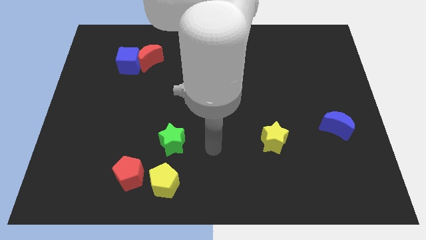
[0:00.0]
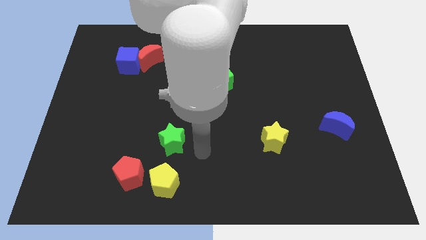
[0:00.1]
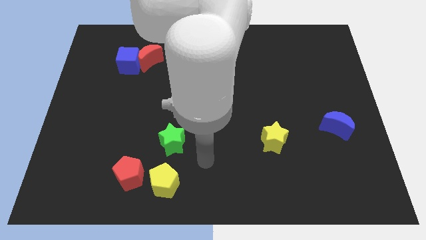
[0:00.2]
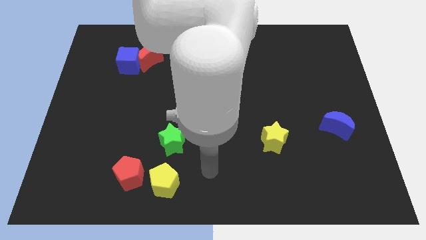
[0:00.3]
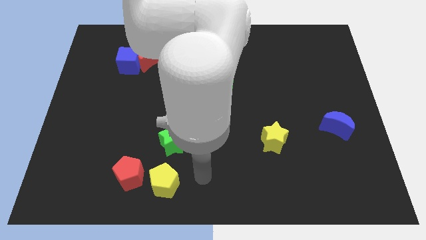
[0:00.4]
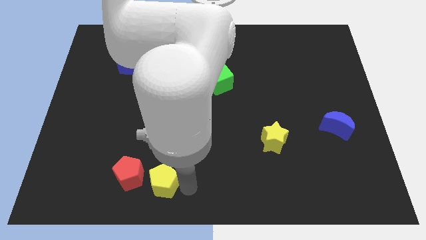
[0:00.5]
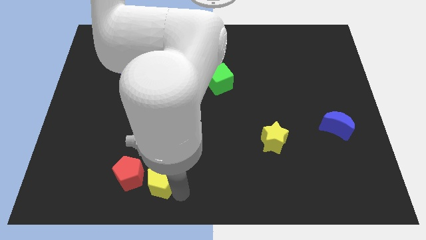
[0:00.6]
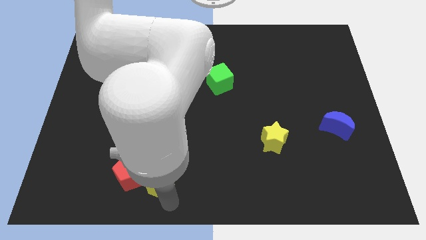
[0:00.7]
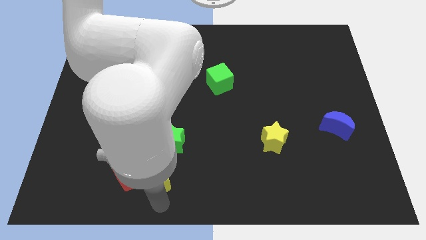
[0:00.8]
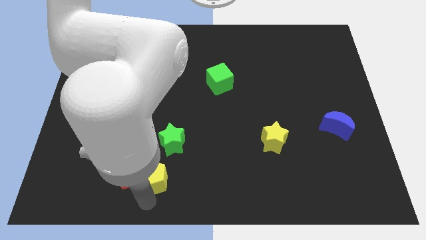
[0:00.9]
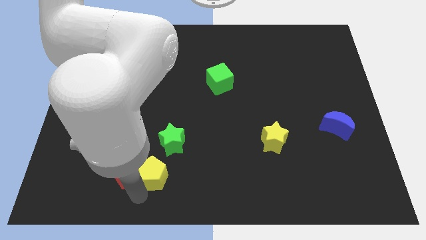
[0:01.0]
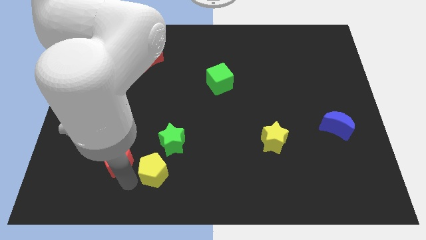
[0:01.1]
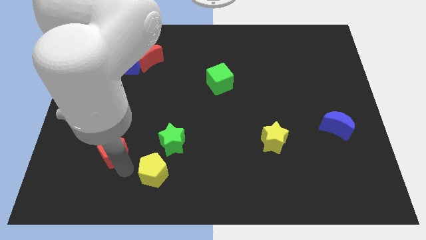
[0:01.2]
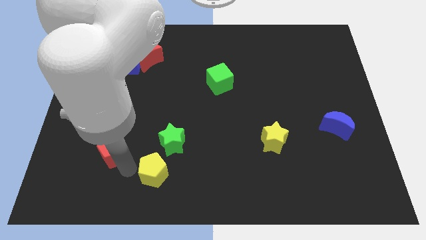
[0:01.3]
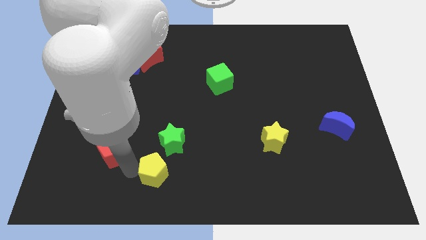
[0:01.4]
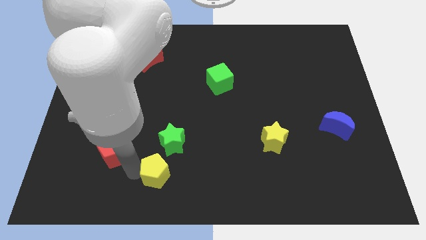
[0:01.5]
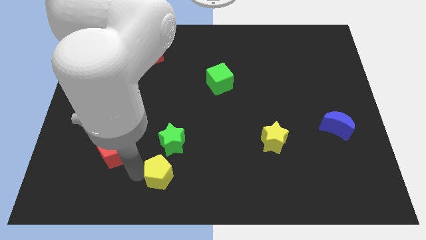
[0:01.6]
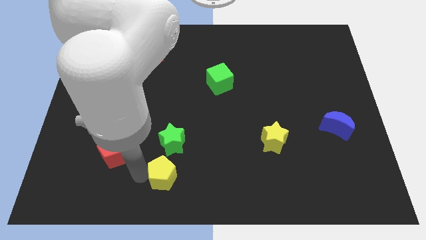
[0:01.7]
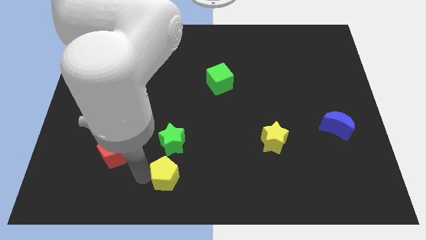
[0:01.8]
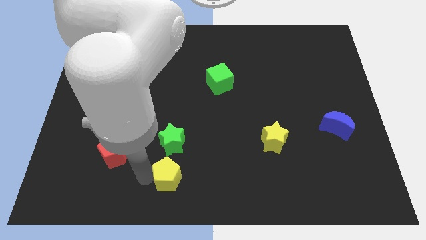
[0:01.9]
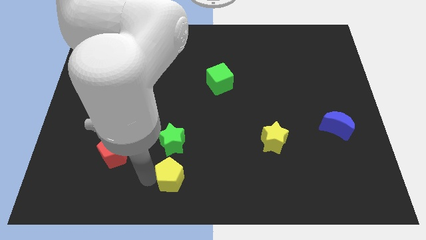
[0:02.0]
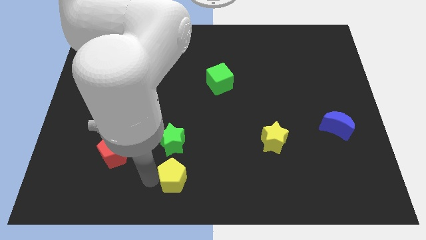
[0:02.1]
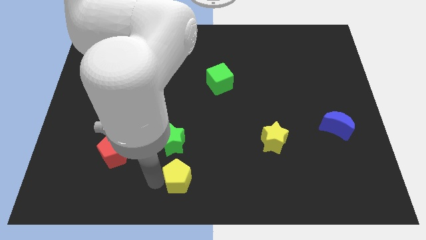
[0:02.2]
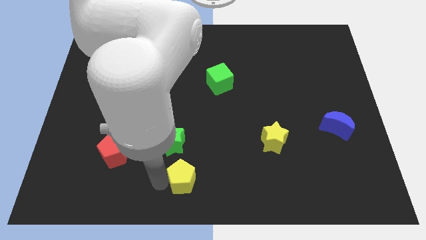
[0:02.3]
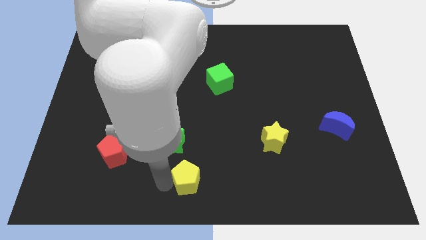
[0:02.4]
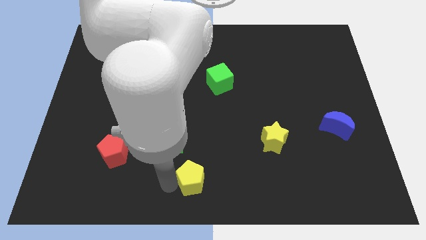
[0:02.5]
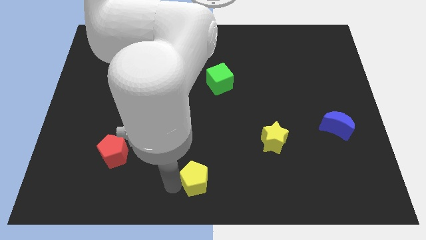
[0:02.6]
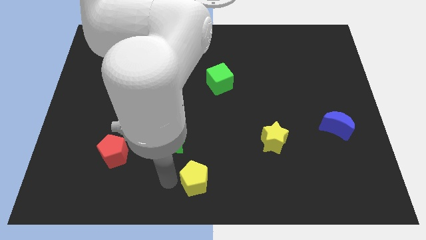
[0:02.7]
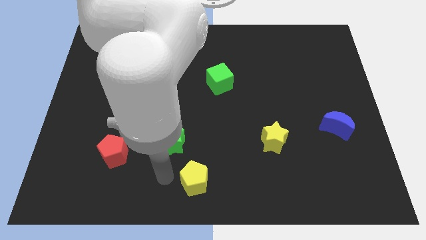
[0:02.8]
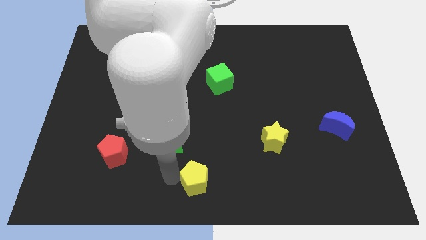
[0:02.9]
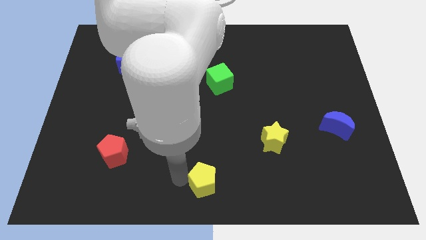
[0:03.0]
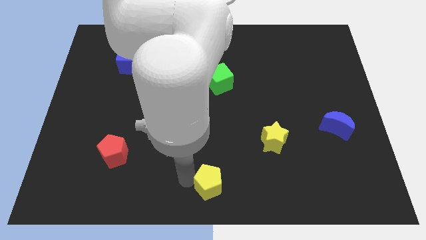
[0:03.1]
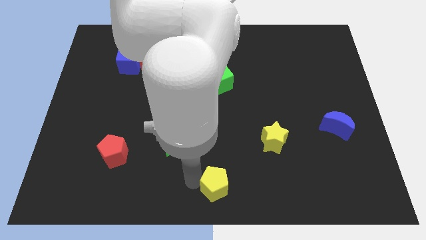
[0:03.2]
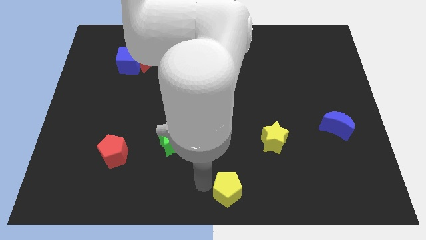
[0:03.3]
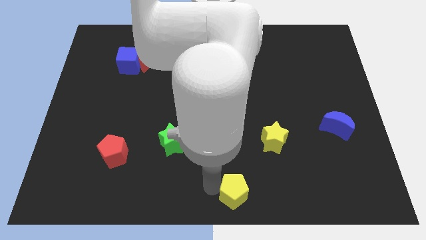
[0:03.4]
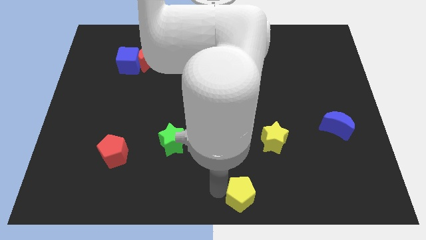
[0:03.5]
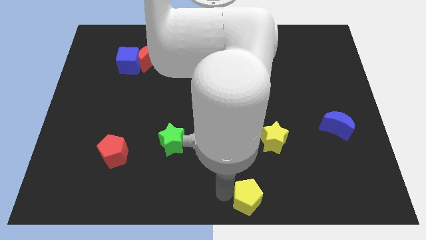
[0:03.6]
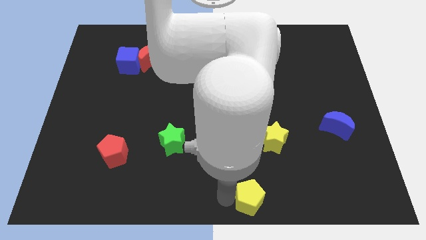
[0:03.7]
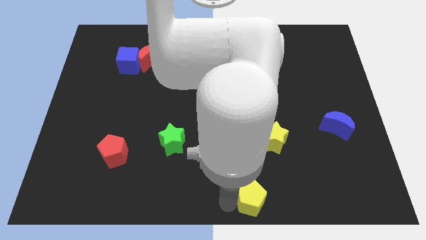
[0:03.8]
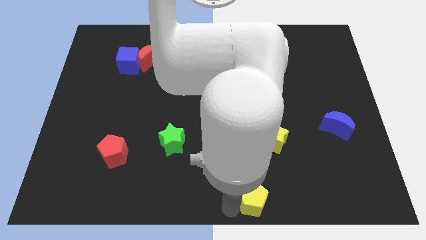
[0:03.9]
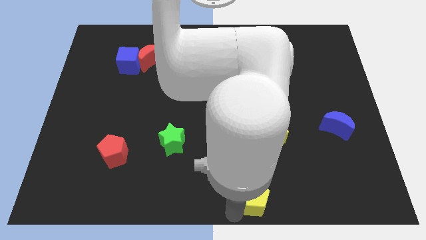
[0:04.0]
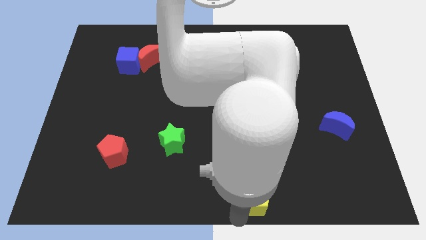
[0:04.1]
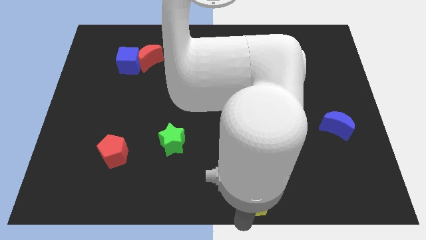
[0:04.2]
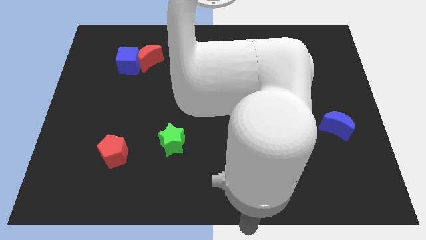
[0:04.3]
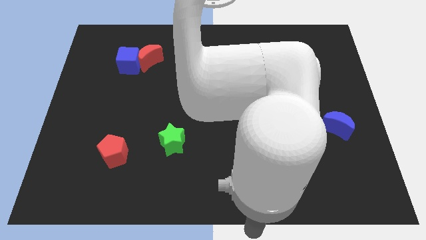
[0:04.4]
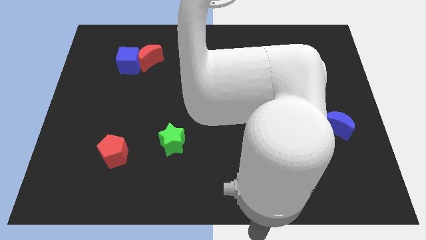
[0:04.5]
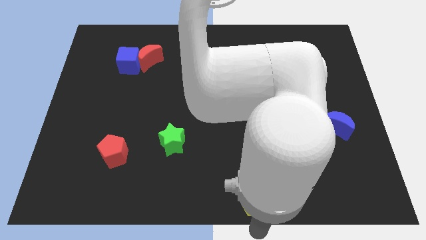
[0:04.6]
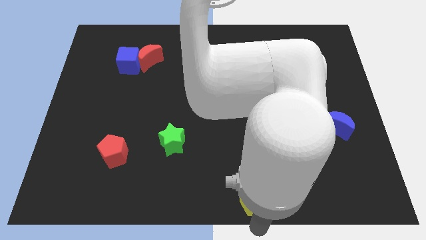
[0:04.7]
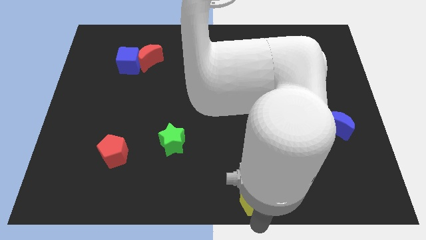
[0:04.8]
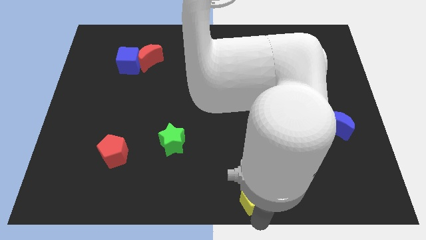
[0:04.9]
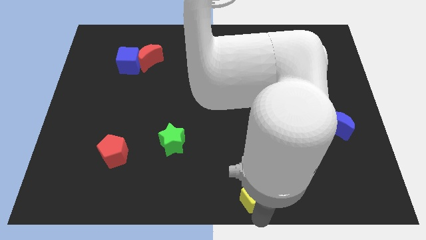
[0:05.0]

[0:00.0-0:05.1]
move the yellow pentagon below the yellow star

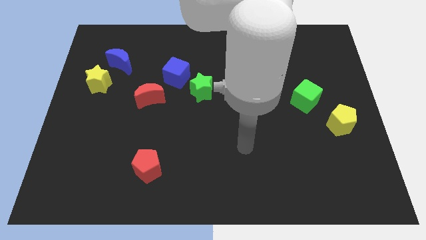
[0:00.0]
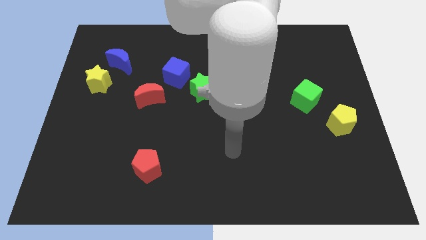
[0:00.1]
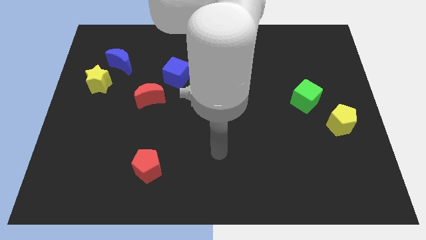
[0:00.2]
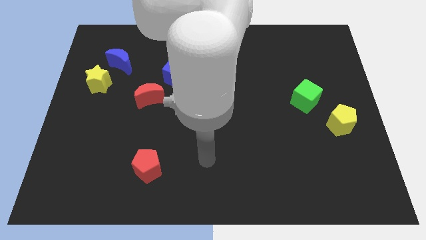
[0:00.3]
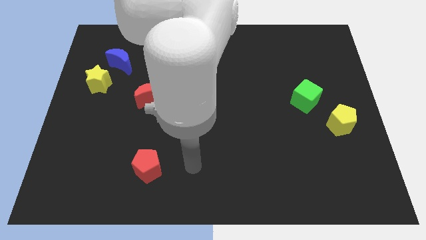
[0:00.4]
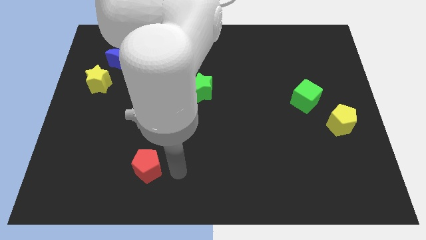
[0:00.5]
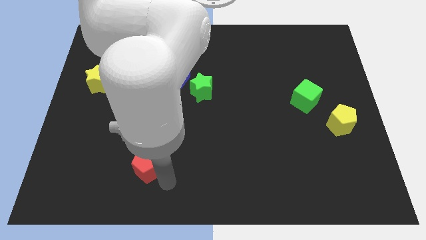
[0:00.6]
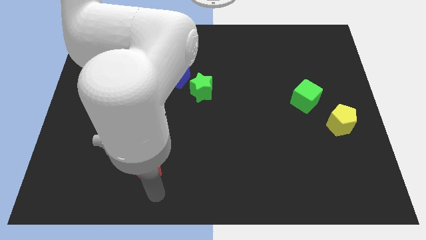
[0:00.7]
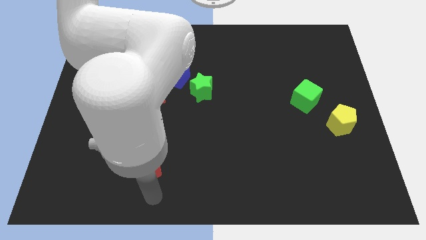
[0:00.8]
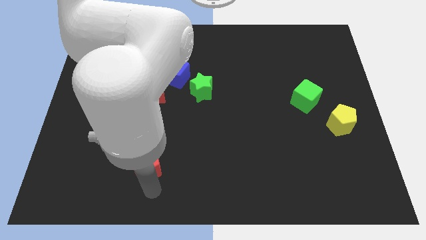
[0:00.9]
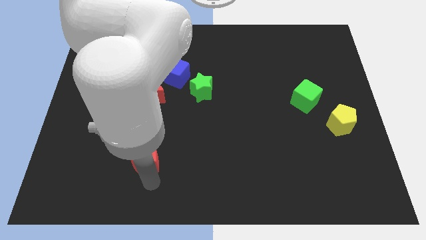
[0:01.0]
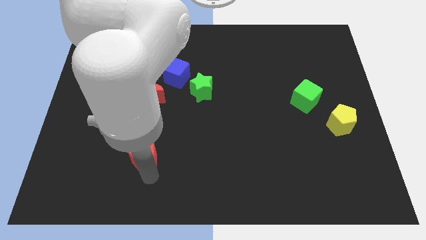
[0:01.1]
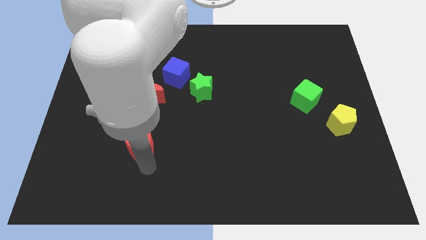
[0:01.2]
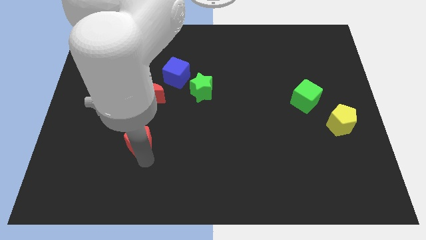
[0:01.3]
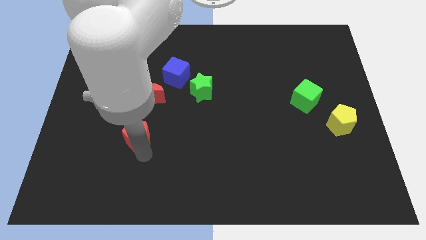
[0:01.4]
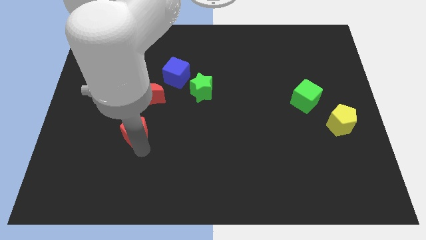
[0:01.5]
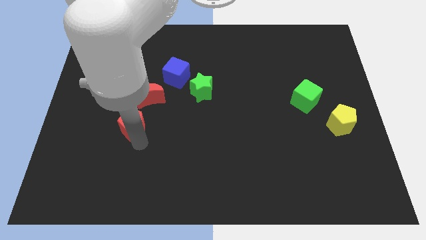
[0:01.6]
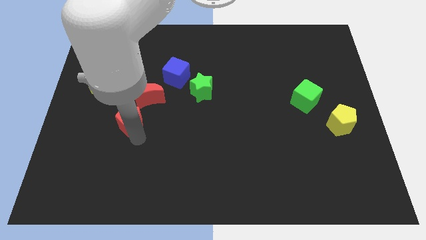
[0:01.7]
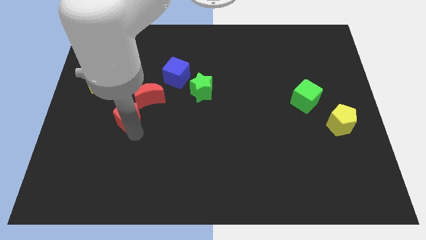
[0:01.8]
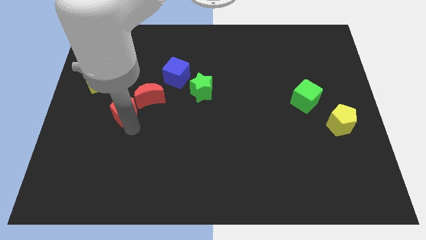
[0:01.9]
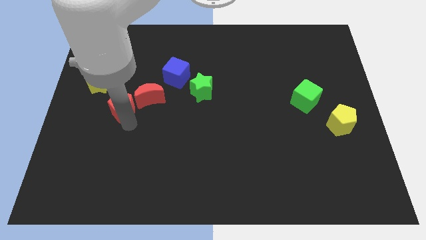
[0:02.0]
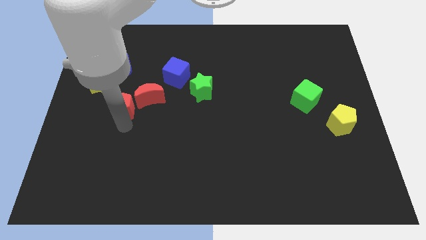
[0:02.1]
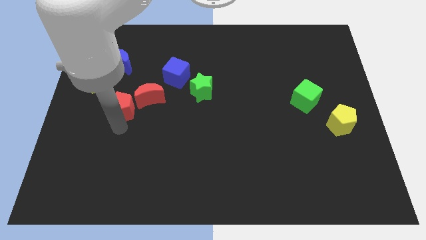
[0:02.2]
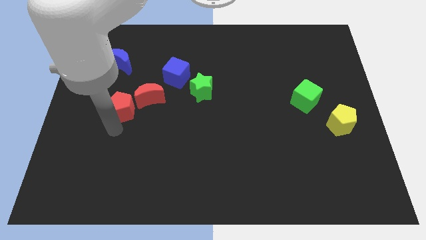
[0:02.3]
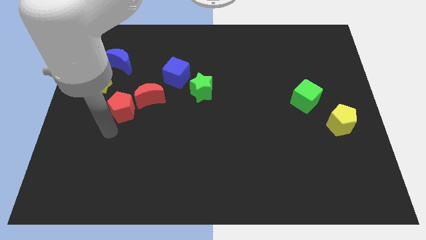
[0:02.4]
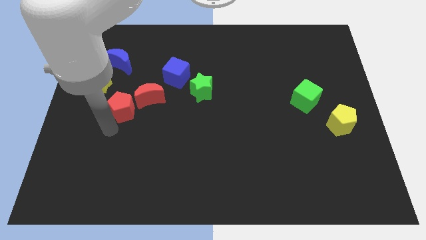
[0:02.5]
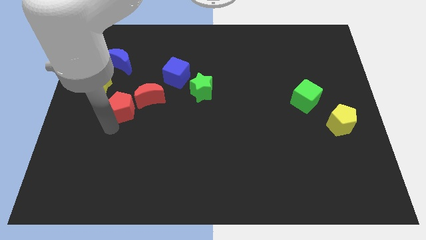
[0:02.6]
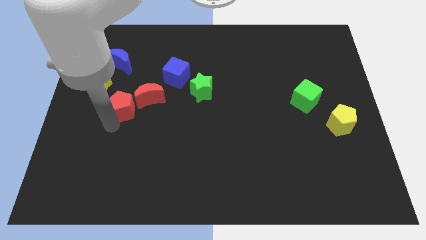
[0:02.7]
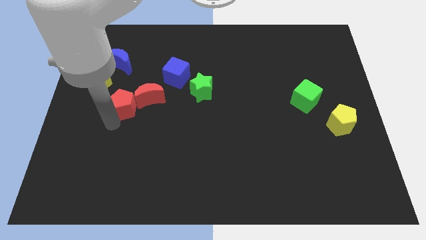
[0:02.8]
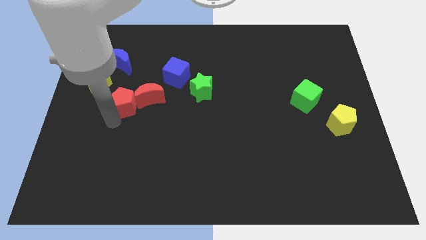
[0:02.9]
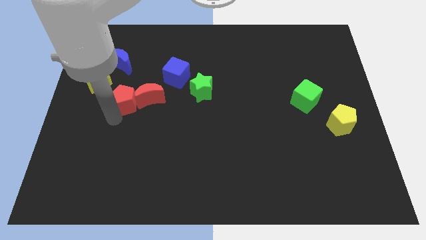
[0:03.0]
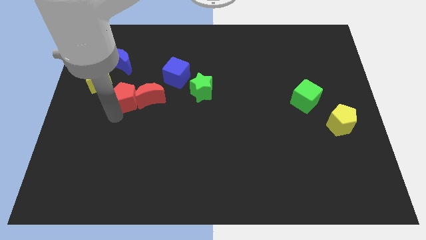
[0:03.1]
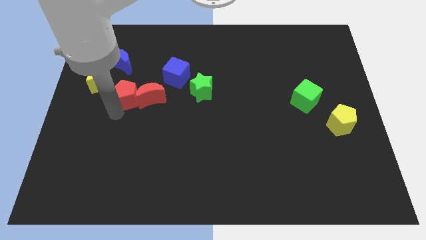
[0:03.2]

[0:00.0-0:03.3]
put the red pentagon to the right side of the yellow star
